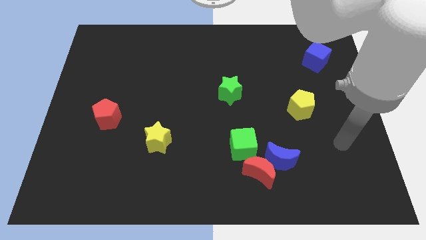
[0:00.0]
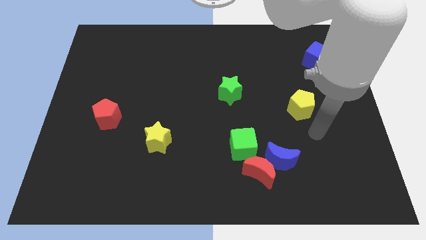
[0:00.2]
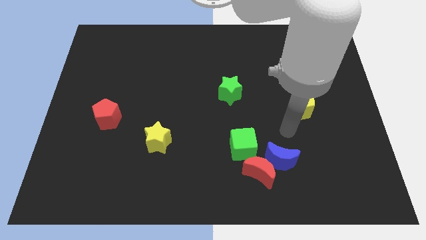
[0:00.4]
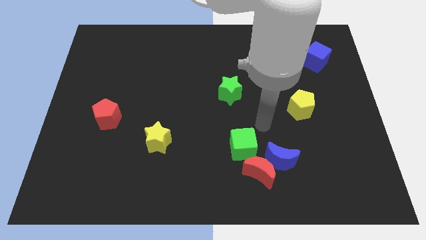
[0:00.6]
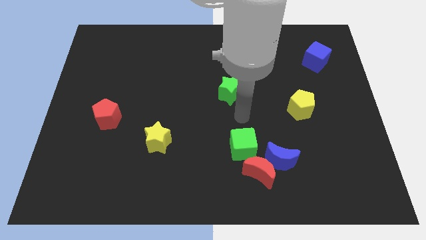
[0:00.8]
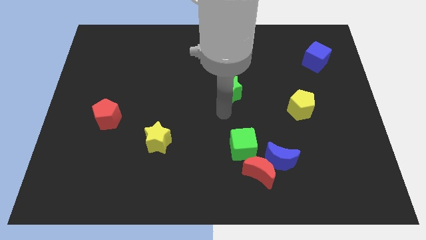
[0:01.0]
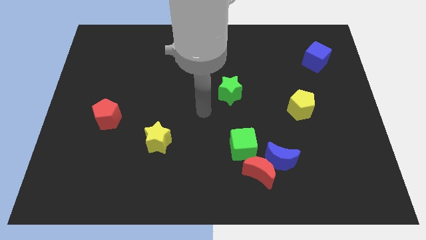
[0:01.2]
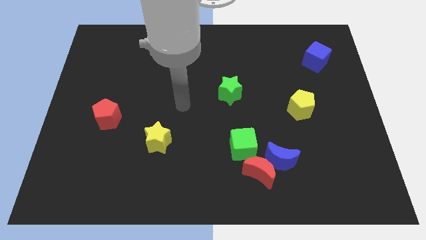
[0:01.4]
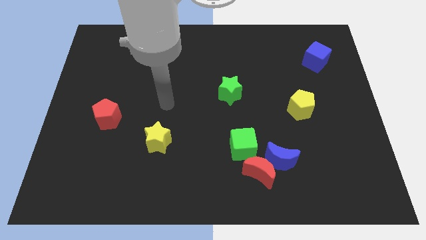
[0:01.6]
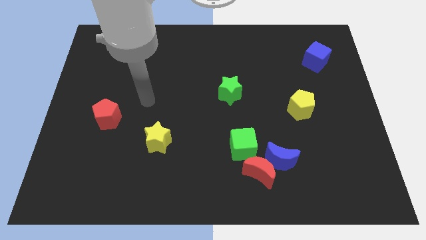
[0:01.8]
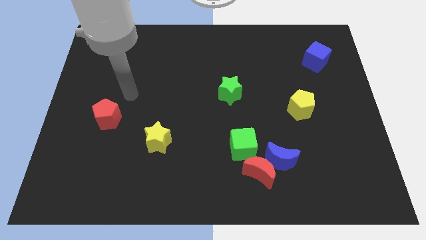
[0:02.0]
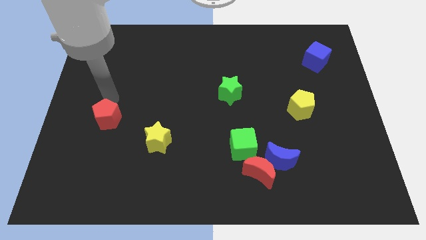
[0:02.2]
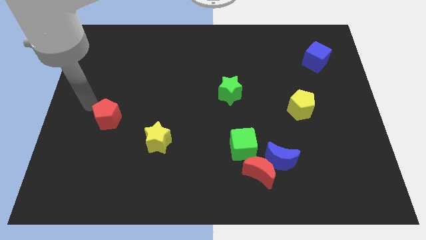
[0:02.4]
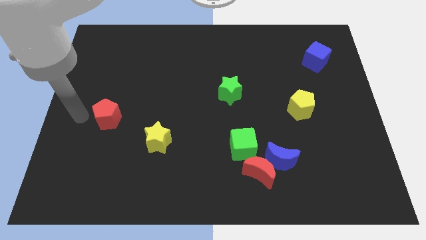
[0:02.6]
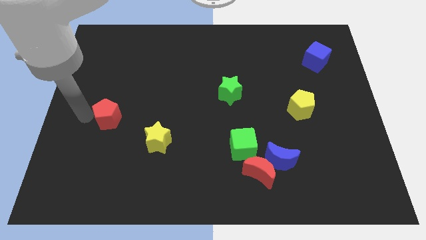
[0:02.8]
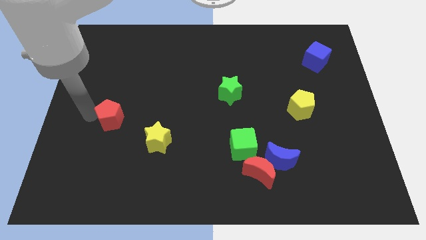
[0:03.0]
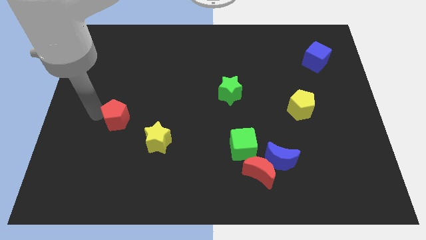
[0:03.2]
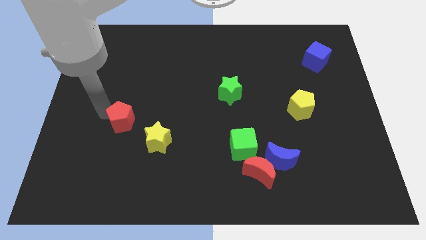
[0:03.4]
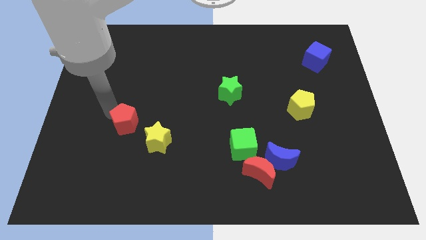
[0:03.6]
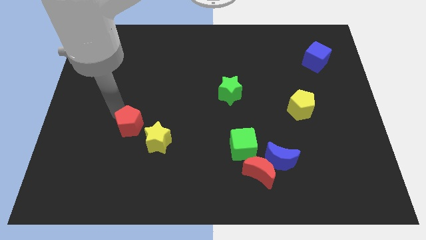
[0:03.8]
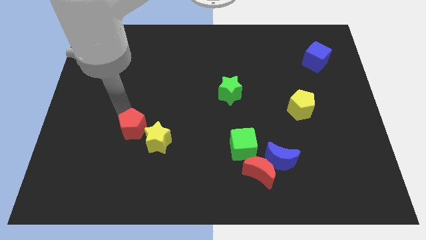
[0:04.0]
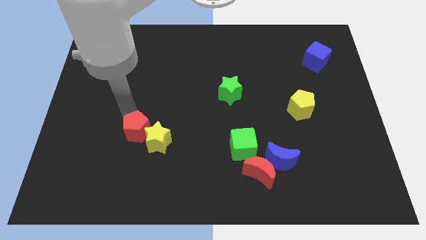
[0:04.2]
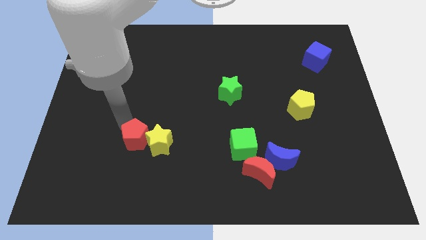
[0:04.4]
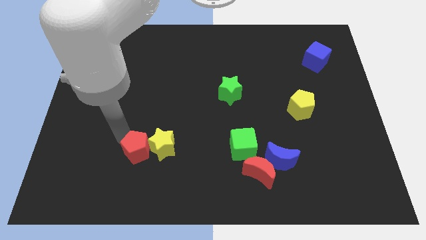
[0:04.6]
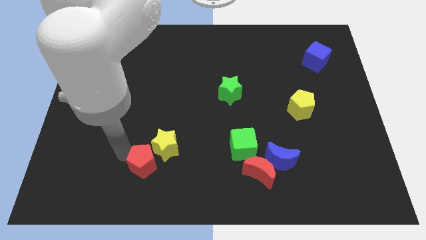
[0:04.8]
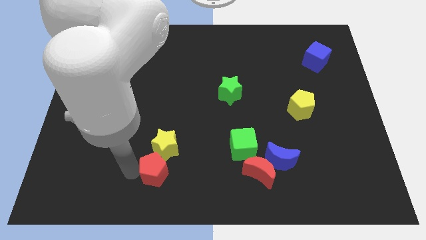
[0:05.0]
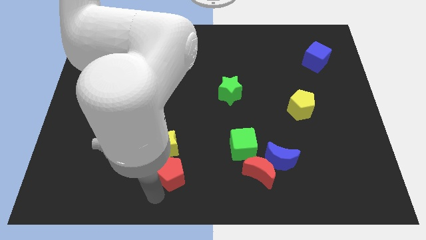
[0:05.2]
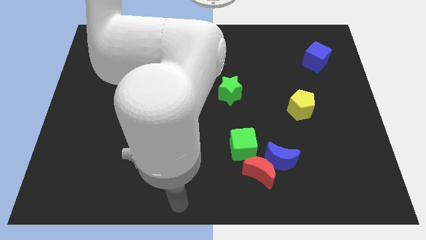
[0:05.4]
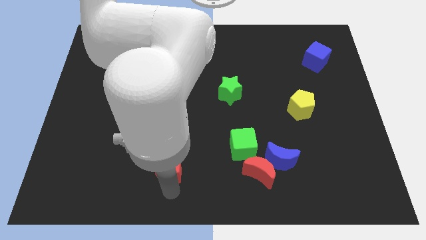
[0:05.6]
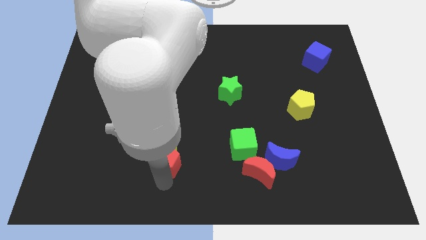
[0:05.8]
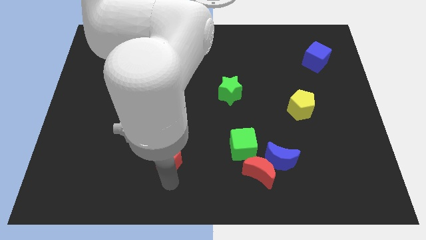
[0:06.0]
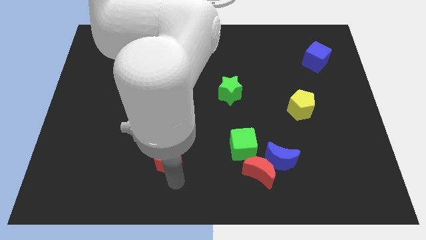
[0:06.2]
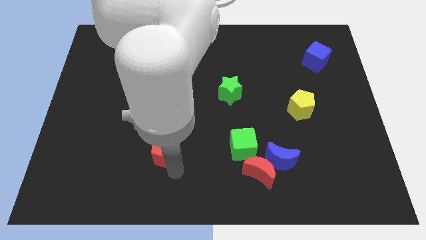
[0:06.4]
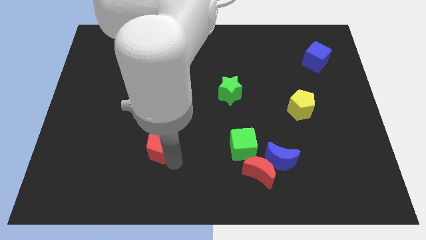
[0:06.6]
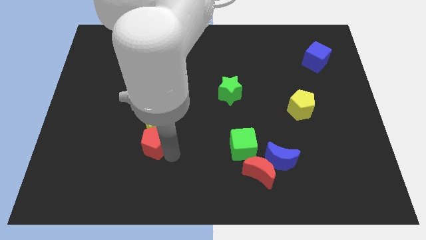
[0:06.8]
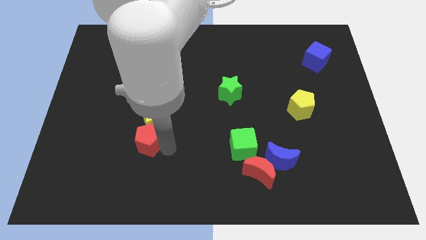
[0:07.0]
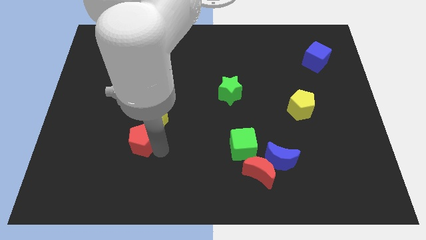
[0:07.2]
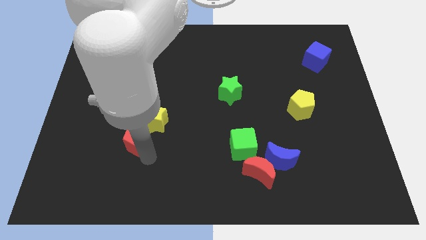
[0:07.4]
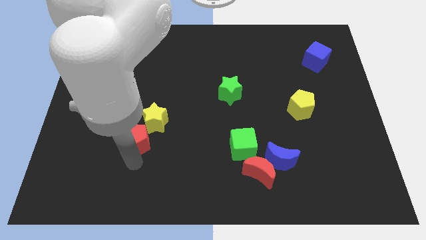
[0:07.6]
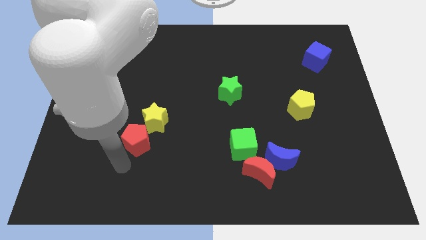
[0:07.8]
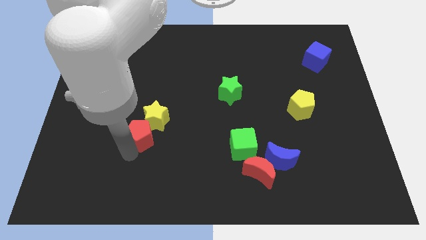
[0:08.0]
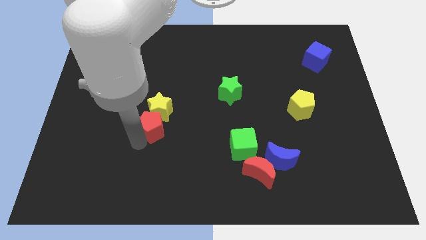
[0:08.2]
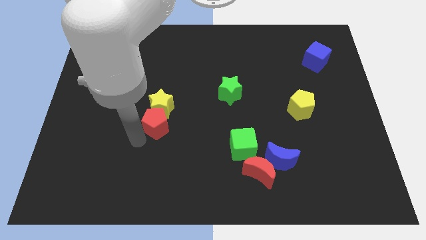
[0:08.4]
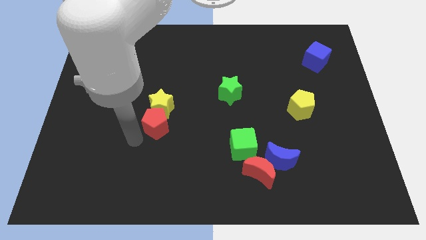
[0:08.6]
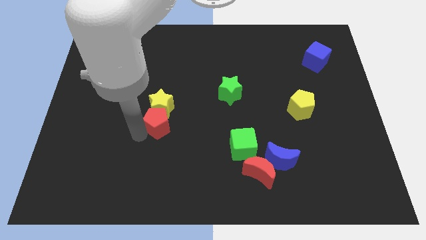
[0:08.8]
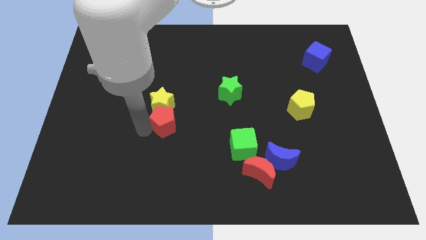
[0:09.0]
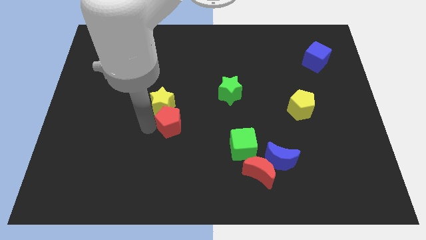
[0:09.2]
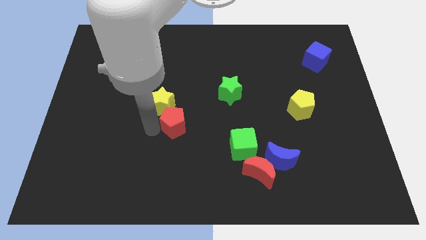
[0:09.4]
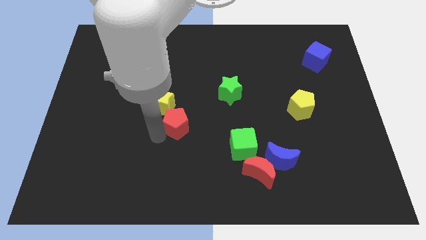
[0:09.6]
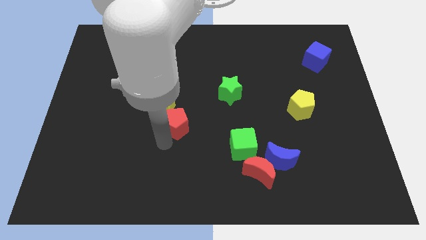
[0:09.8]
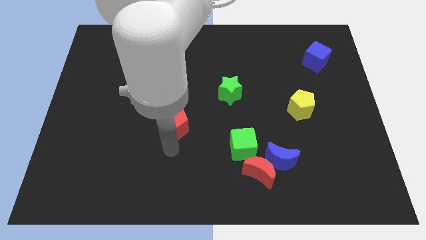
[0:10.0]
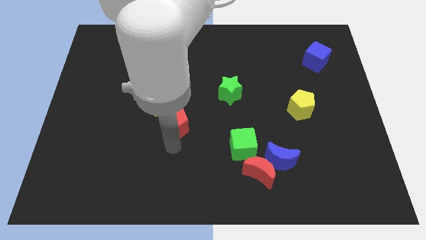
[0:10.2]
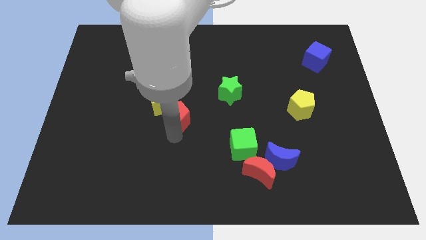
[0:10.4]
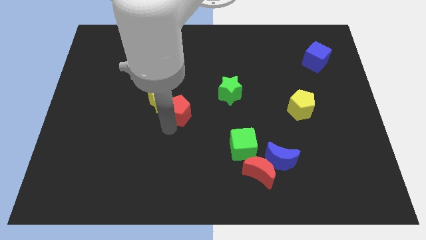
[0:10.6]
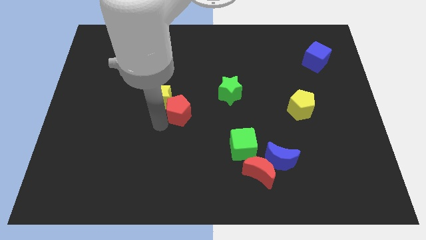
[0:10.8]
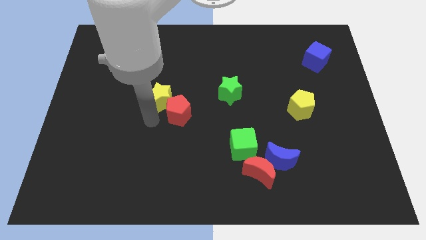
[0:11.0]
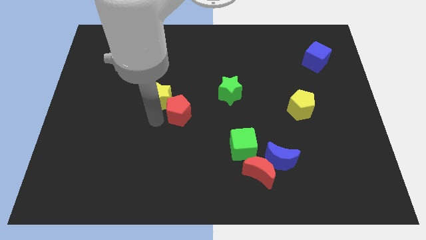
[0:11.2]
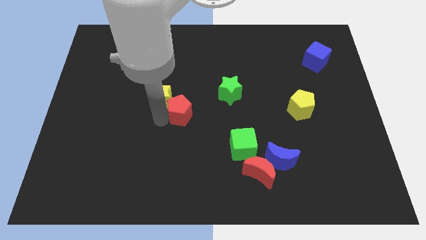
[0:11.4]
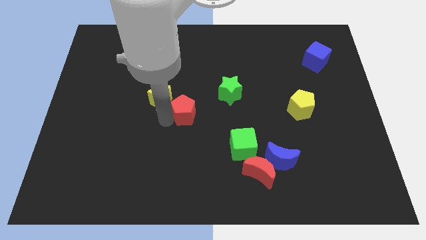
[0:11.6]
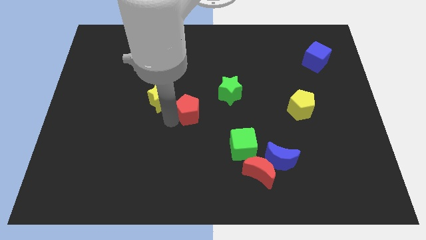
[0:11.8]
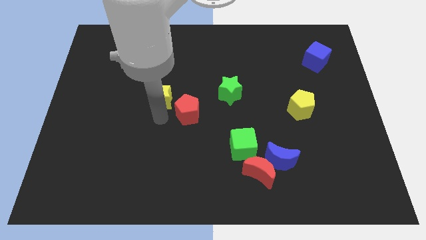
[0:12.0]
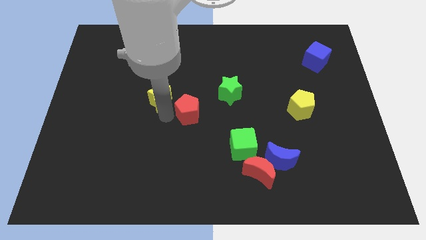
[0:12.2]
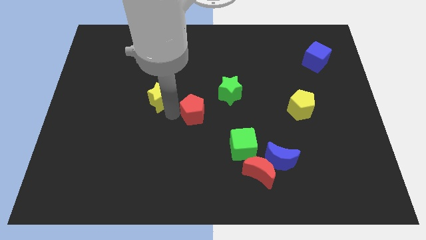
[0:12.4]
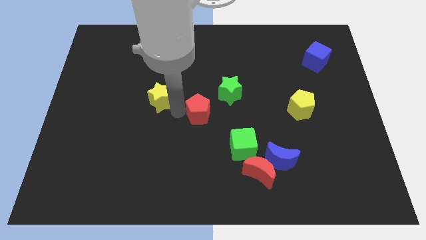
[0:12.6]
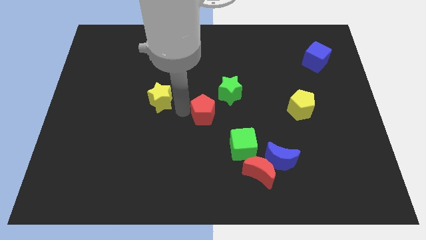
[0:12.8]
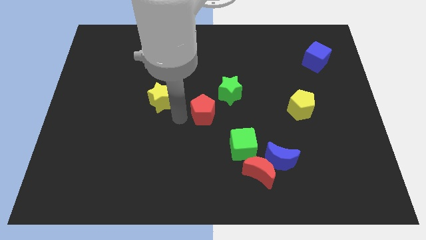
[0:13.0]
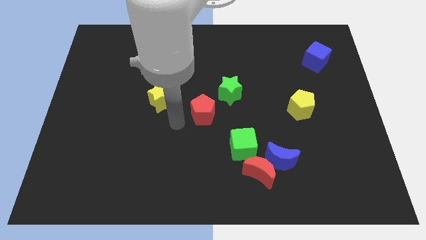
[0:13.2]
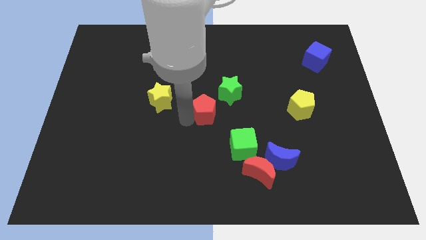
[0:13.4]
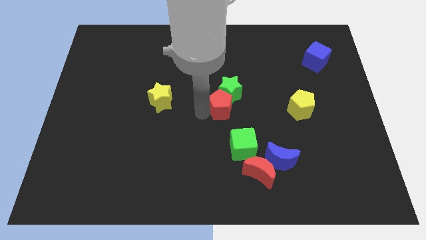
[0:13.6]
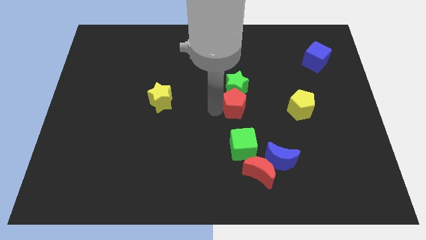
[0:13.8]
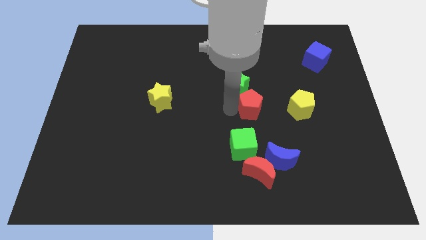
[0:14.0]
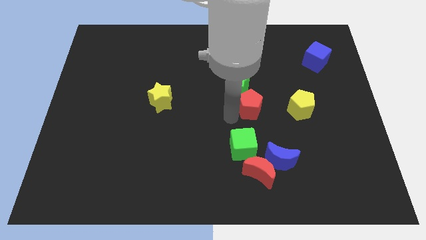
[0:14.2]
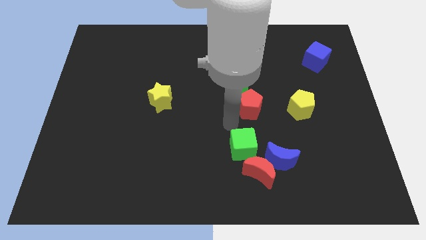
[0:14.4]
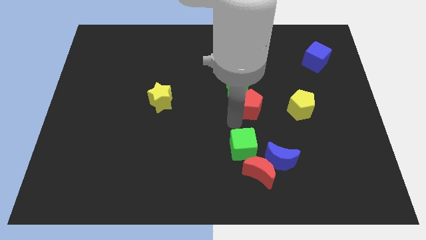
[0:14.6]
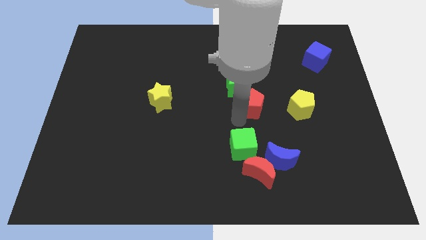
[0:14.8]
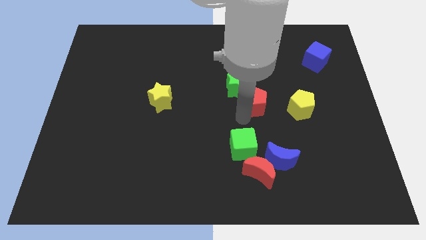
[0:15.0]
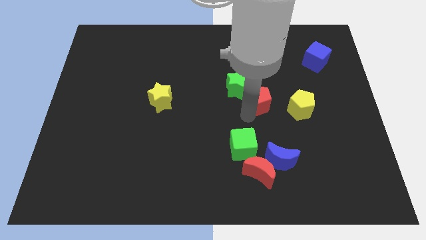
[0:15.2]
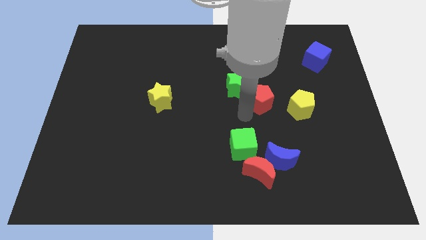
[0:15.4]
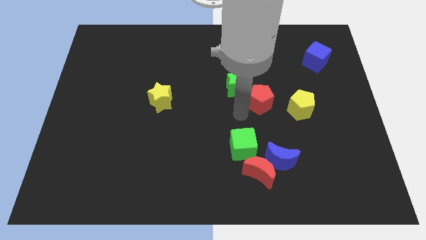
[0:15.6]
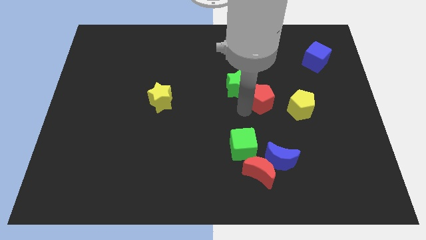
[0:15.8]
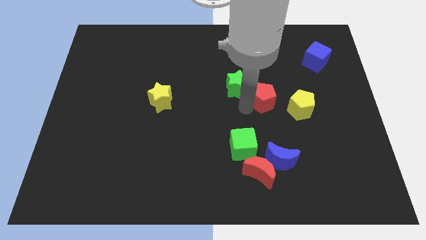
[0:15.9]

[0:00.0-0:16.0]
slide the red pentagon to the top left of the yellow pentagon
